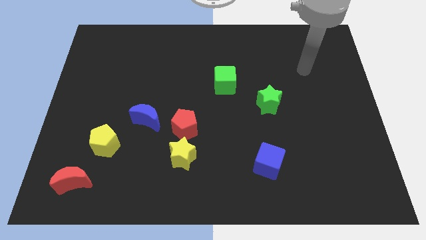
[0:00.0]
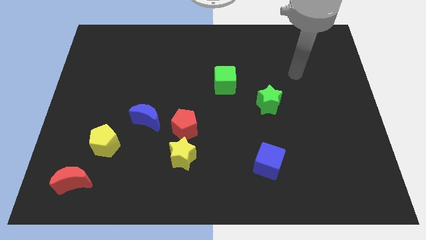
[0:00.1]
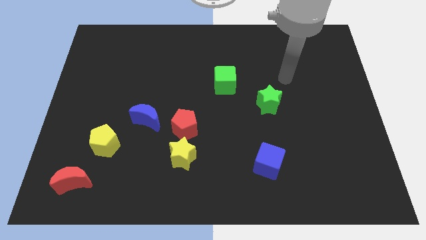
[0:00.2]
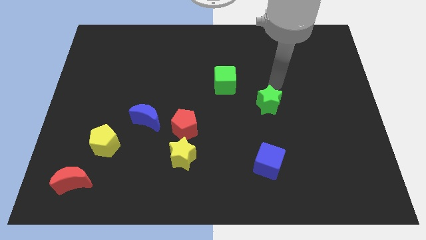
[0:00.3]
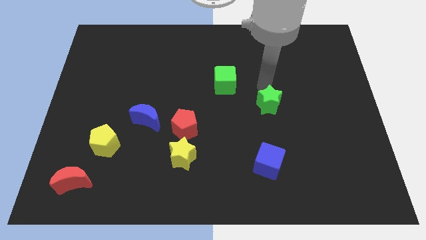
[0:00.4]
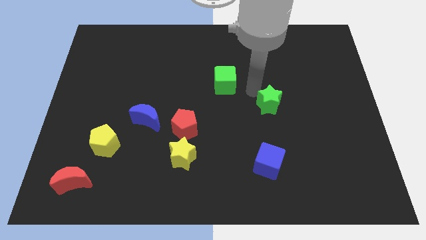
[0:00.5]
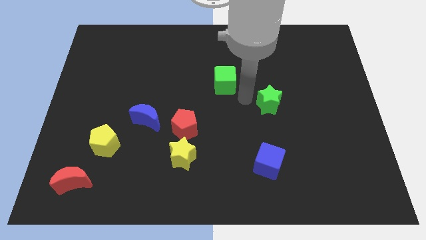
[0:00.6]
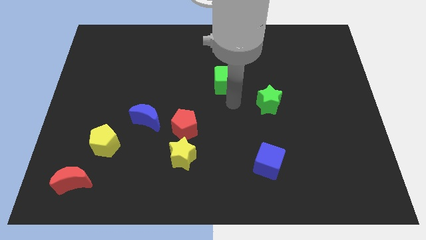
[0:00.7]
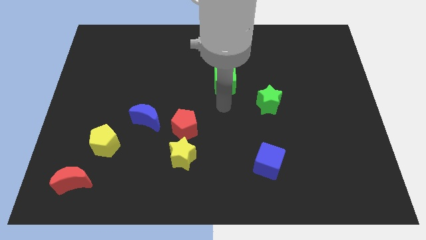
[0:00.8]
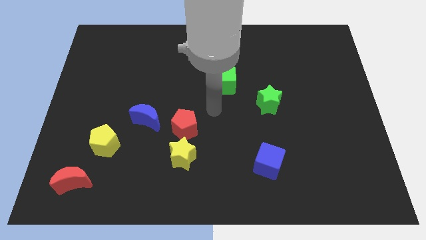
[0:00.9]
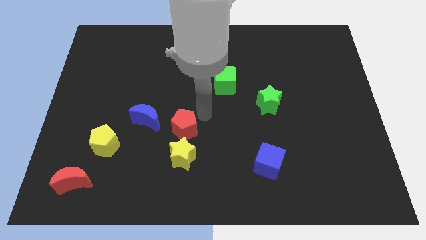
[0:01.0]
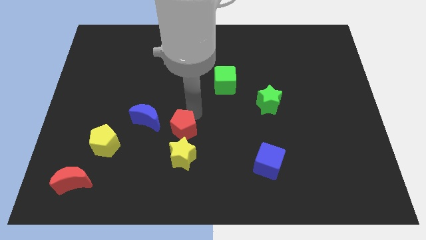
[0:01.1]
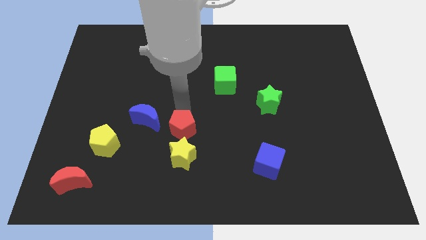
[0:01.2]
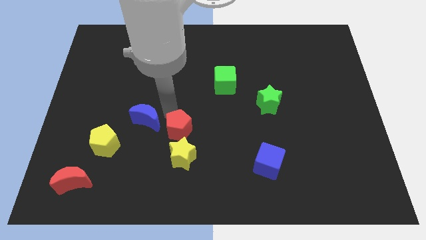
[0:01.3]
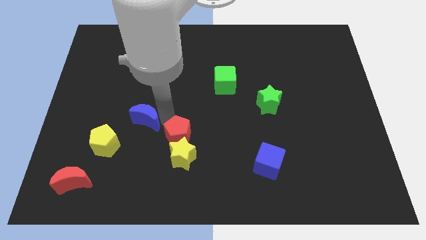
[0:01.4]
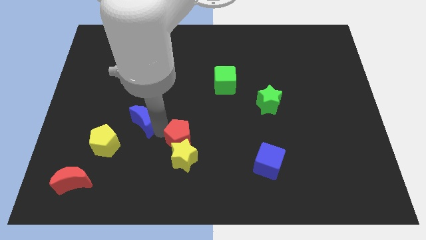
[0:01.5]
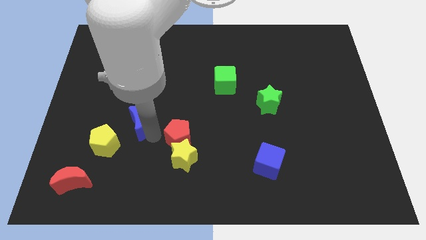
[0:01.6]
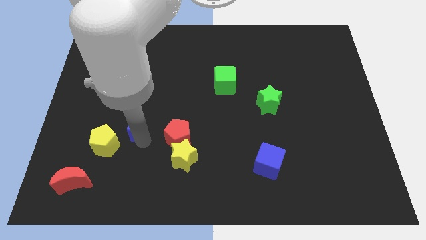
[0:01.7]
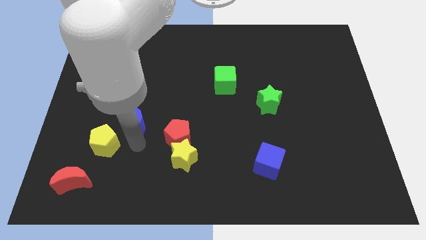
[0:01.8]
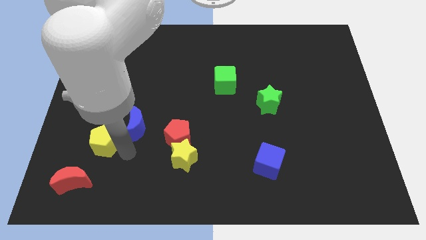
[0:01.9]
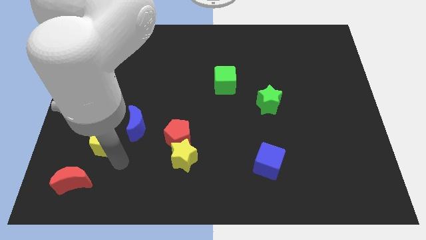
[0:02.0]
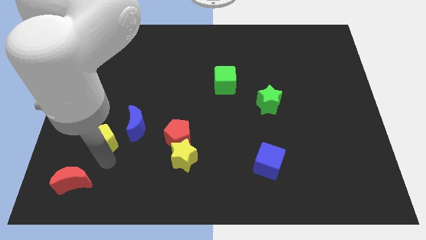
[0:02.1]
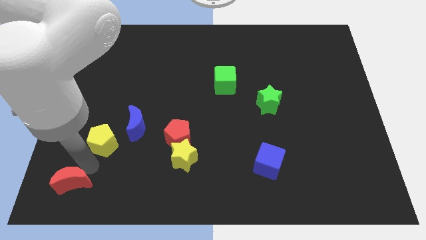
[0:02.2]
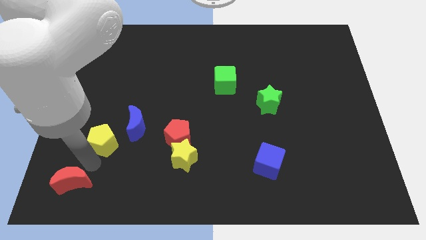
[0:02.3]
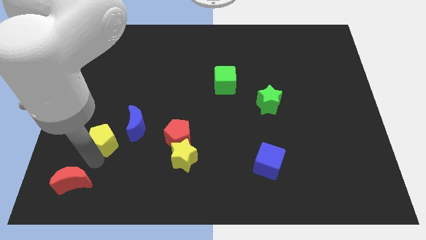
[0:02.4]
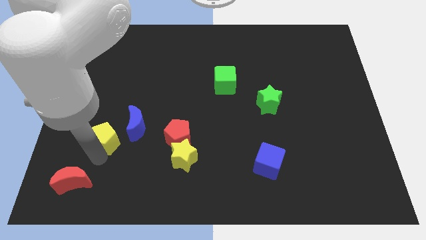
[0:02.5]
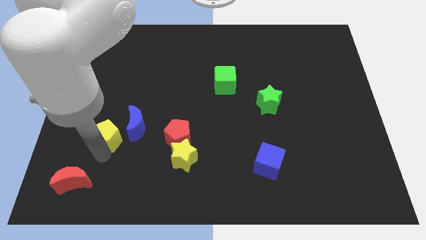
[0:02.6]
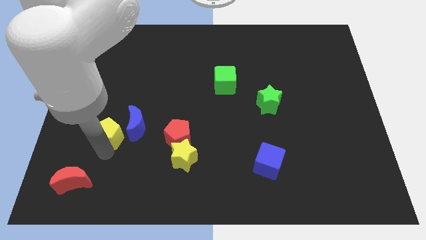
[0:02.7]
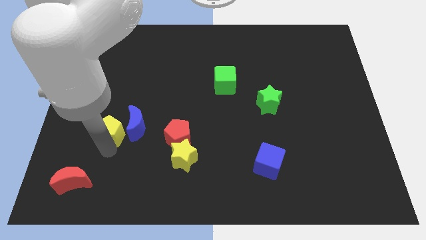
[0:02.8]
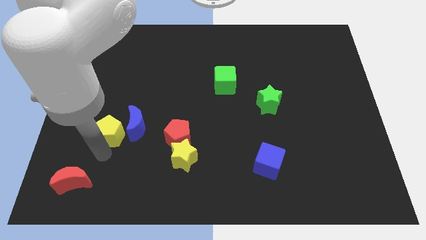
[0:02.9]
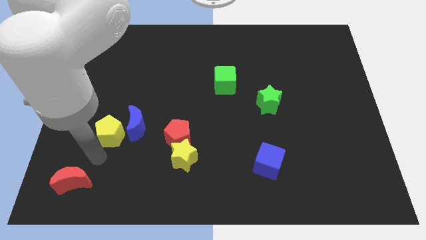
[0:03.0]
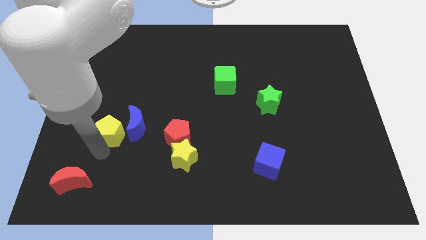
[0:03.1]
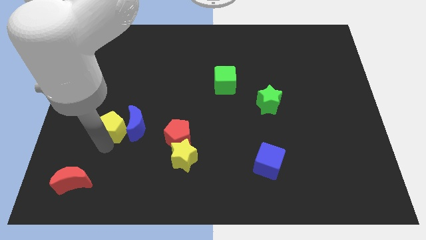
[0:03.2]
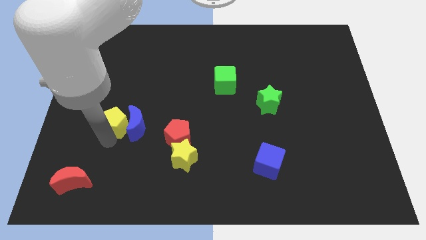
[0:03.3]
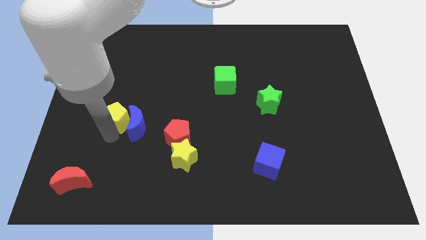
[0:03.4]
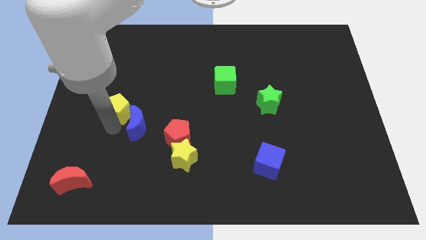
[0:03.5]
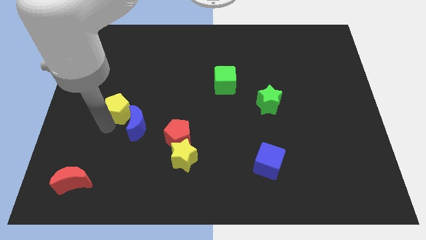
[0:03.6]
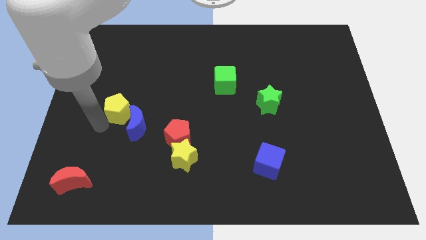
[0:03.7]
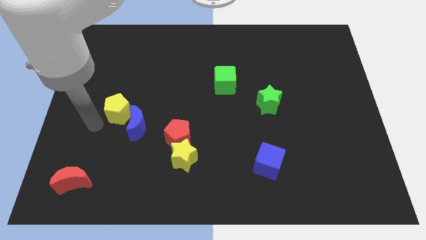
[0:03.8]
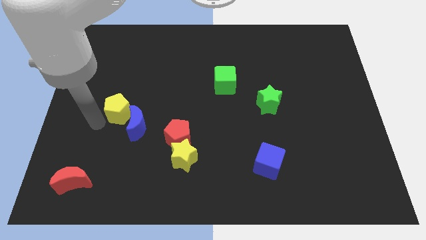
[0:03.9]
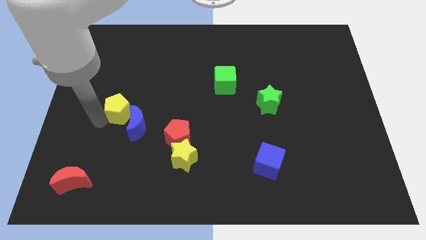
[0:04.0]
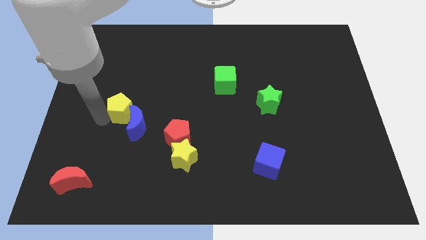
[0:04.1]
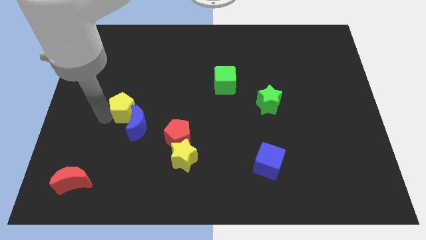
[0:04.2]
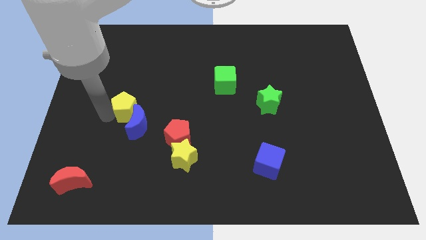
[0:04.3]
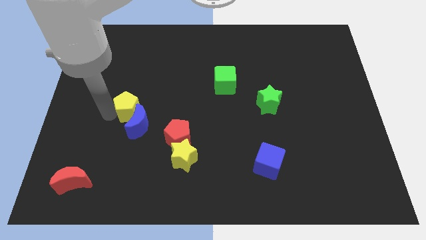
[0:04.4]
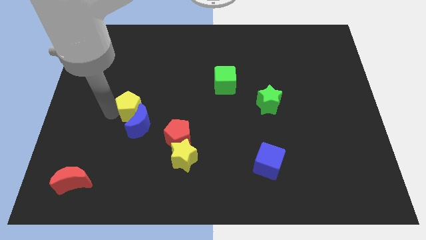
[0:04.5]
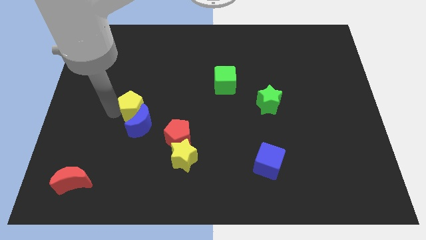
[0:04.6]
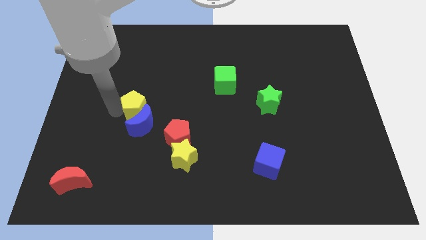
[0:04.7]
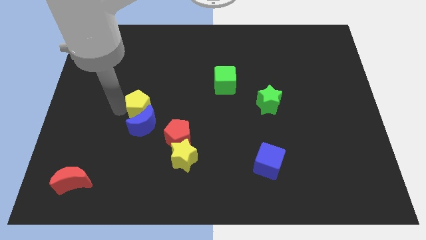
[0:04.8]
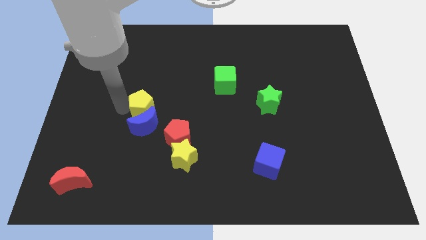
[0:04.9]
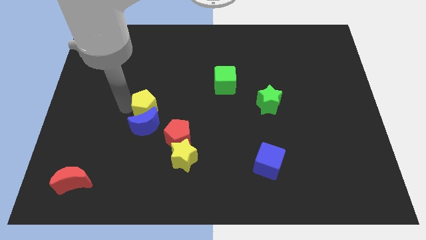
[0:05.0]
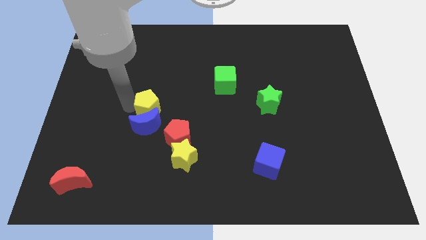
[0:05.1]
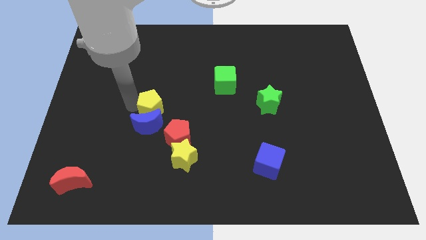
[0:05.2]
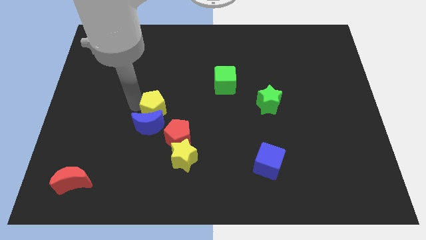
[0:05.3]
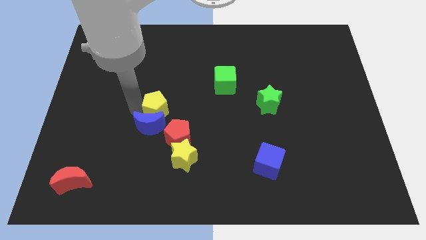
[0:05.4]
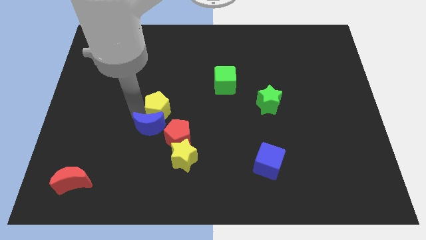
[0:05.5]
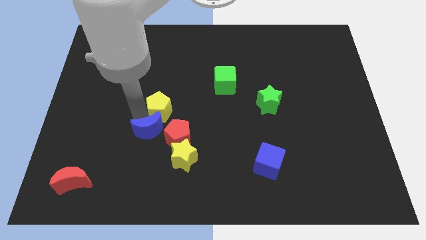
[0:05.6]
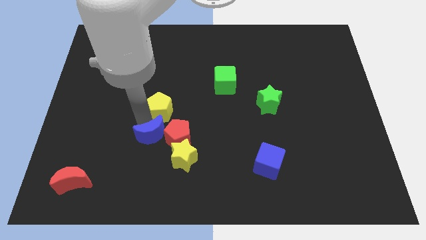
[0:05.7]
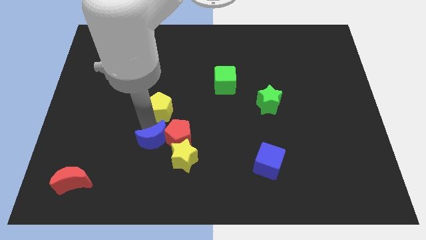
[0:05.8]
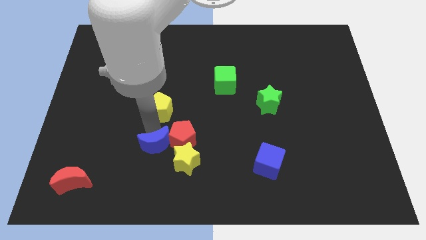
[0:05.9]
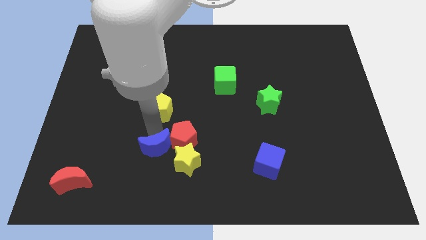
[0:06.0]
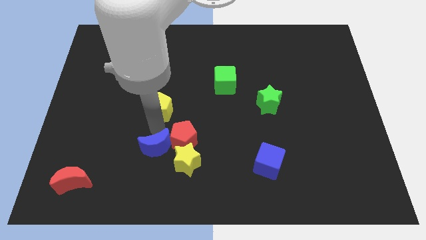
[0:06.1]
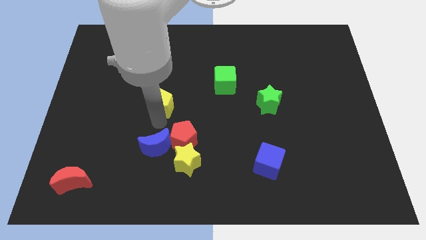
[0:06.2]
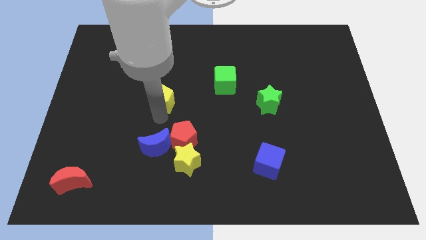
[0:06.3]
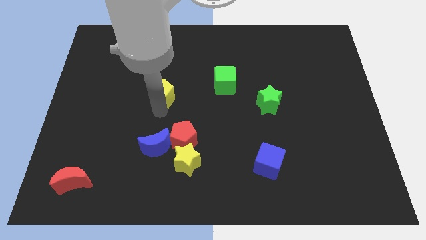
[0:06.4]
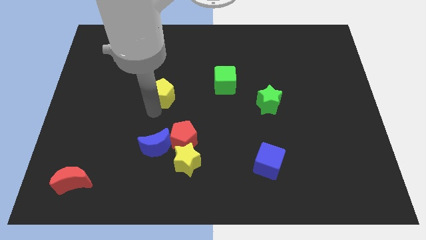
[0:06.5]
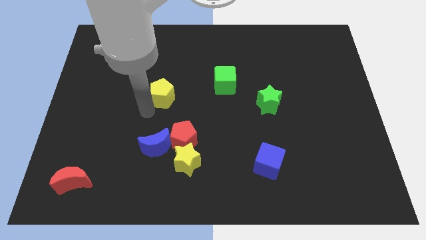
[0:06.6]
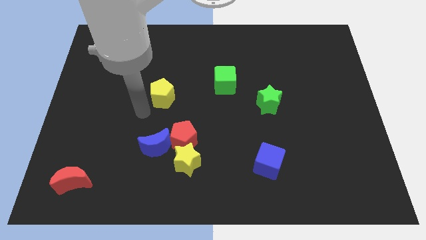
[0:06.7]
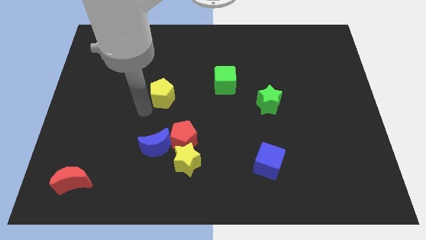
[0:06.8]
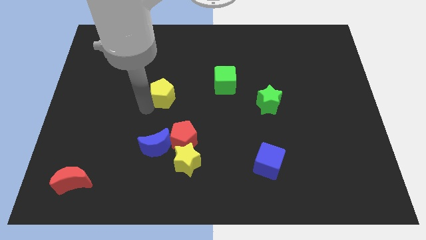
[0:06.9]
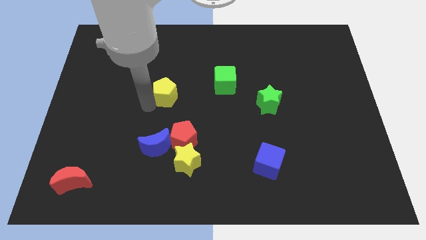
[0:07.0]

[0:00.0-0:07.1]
put the yellow pentagon left of the green cube

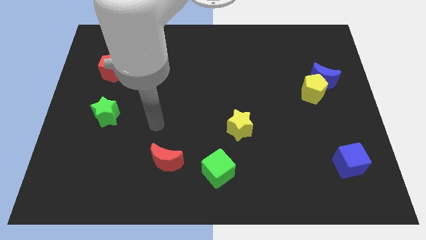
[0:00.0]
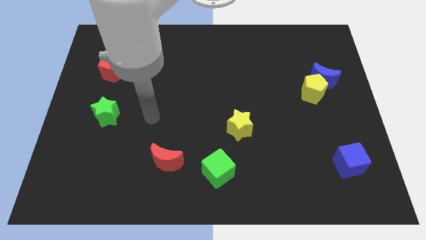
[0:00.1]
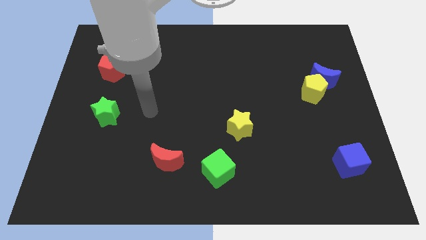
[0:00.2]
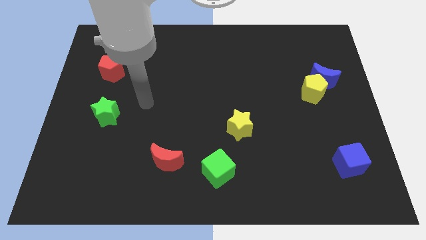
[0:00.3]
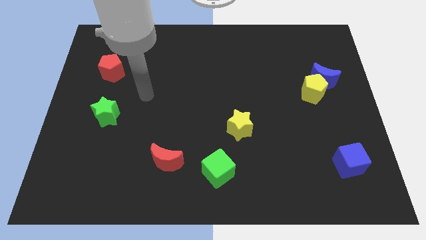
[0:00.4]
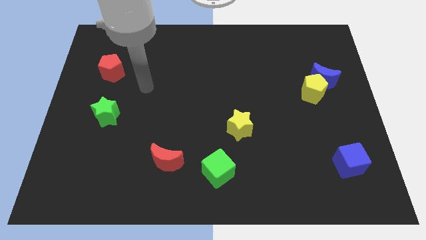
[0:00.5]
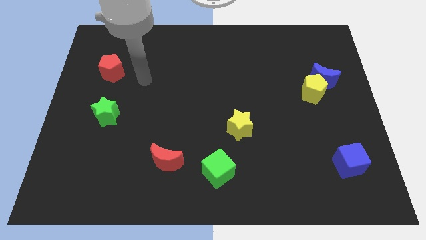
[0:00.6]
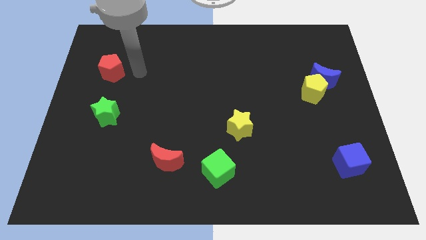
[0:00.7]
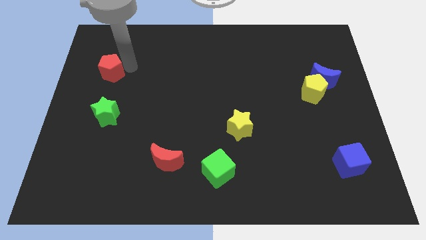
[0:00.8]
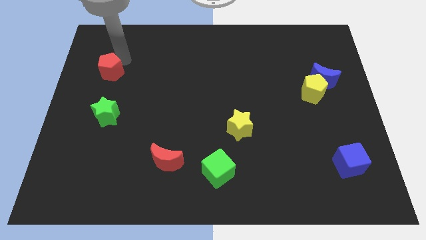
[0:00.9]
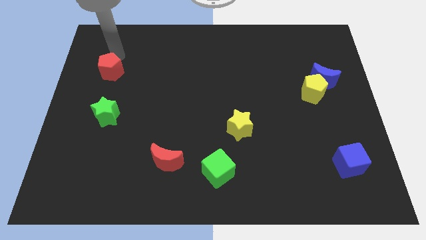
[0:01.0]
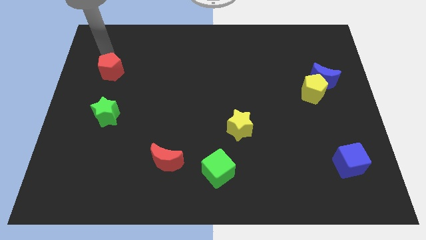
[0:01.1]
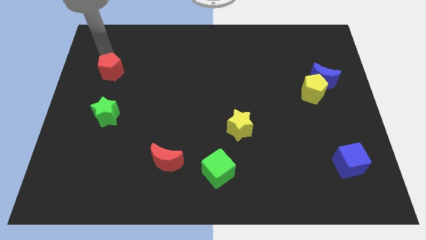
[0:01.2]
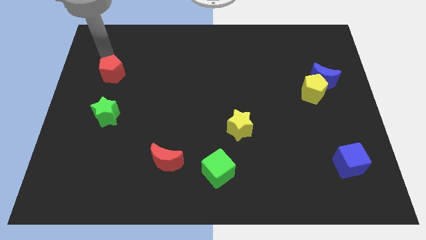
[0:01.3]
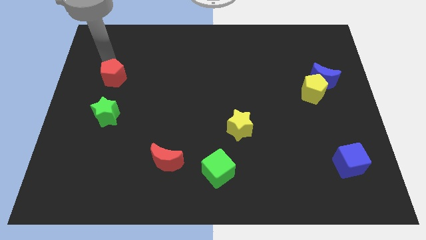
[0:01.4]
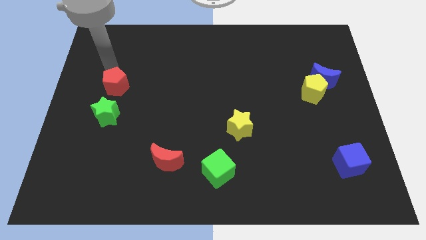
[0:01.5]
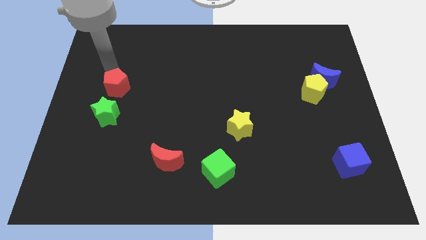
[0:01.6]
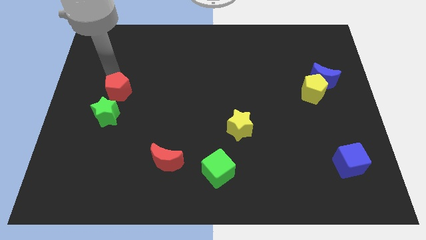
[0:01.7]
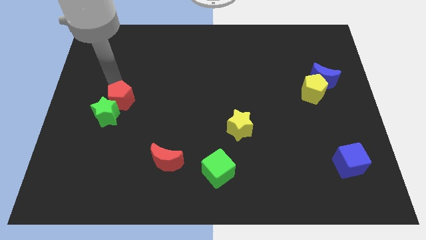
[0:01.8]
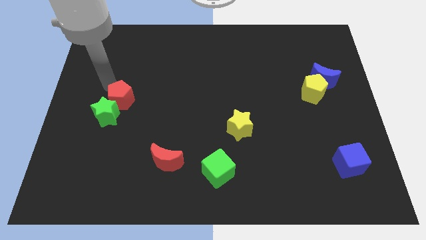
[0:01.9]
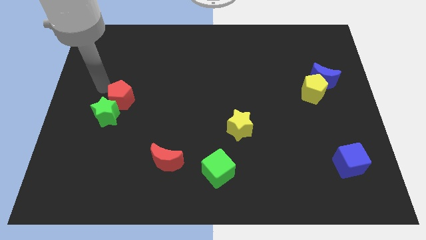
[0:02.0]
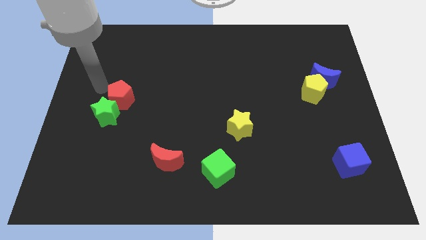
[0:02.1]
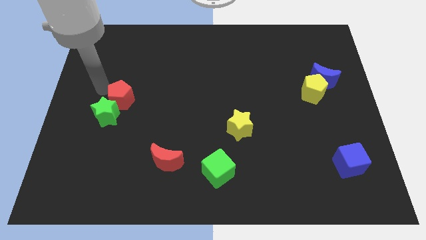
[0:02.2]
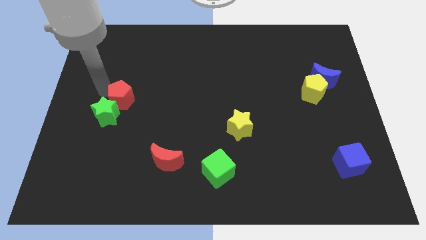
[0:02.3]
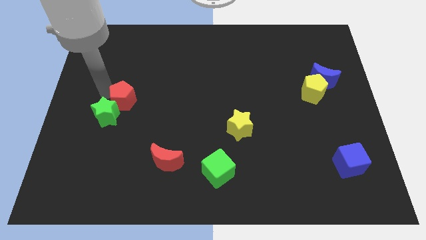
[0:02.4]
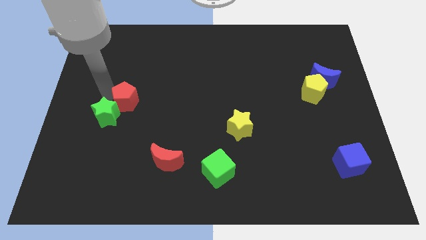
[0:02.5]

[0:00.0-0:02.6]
move the red pentagon just right of the green star
